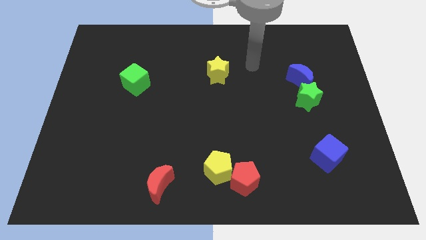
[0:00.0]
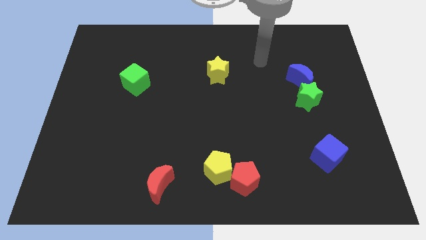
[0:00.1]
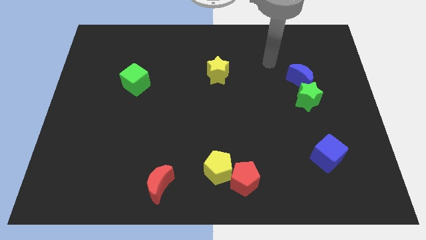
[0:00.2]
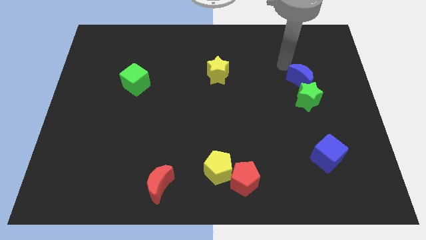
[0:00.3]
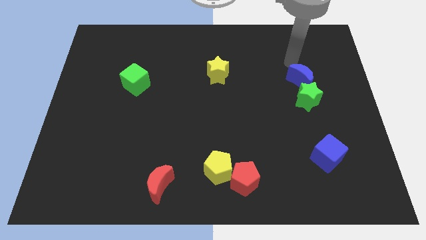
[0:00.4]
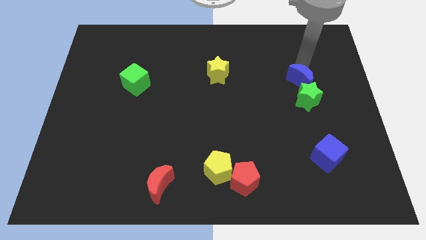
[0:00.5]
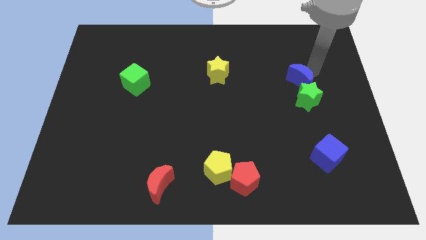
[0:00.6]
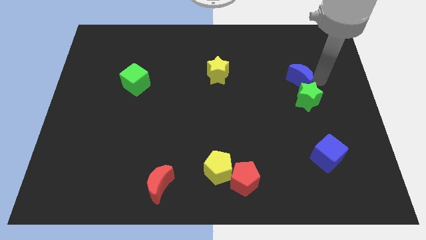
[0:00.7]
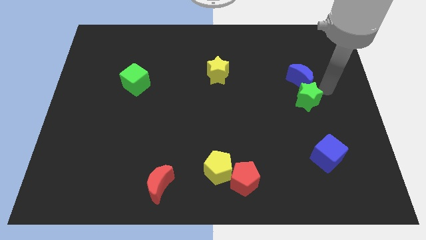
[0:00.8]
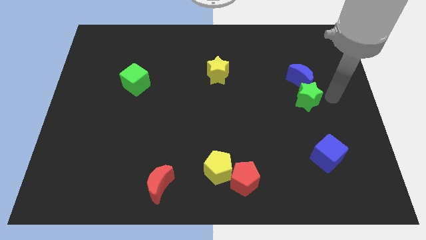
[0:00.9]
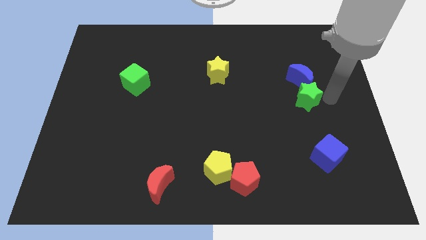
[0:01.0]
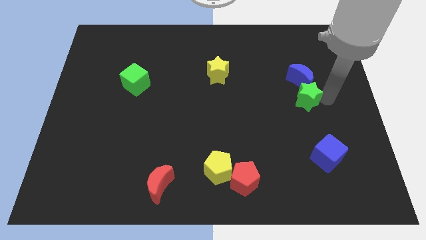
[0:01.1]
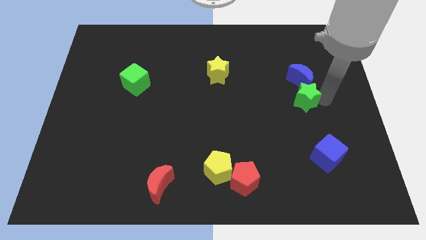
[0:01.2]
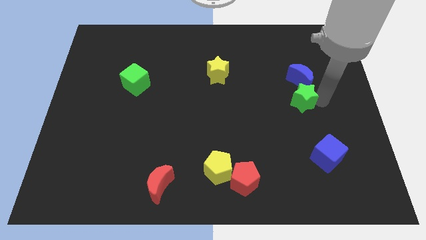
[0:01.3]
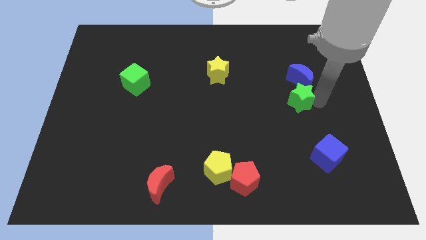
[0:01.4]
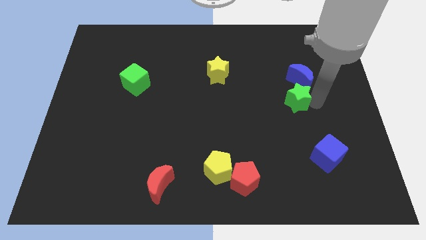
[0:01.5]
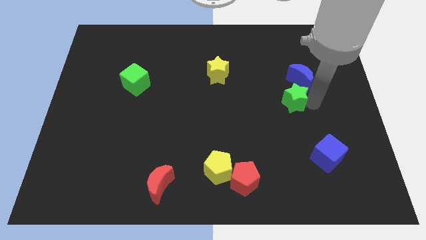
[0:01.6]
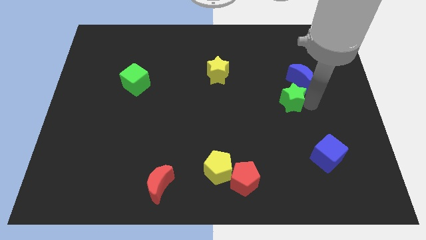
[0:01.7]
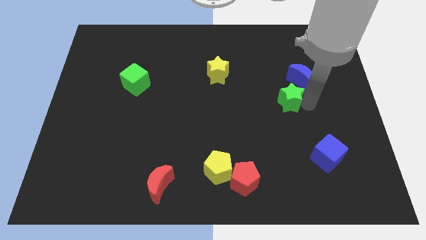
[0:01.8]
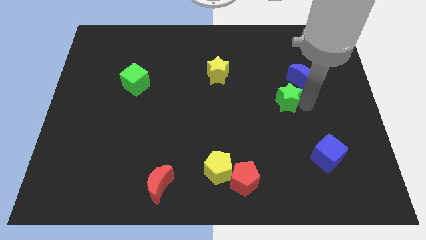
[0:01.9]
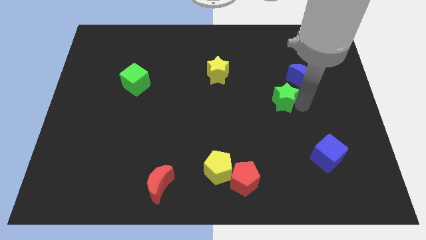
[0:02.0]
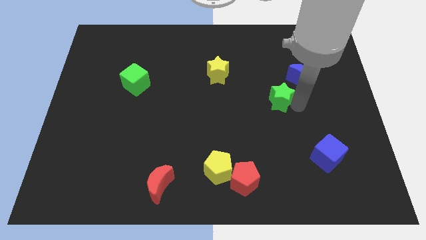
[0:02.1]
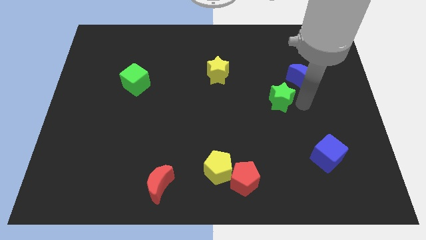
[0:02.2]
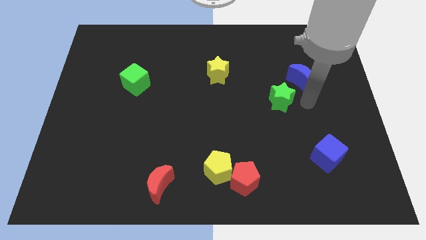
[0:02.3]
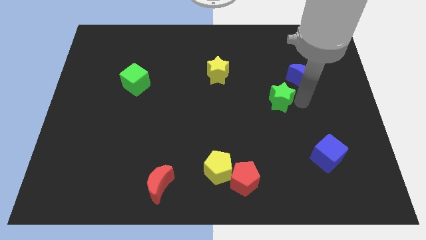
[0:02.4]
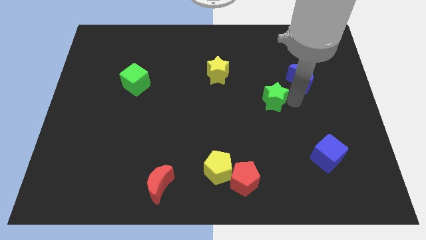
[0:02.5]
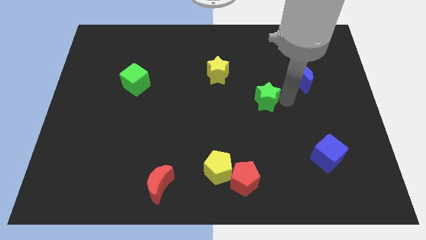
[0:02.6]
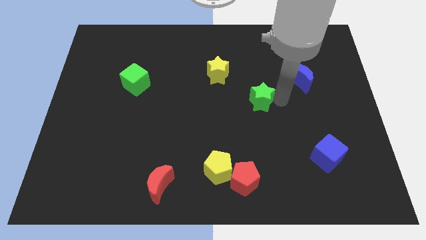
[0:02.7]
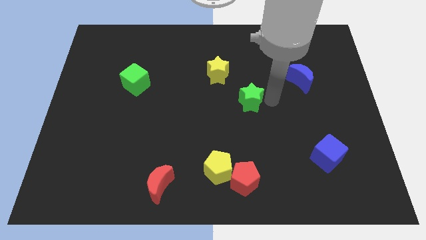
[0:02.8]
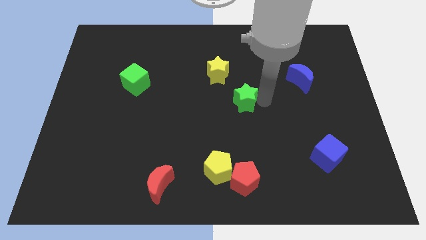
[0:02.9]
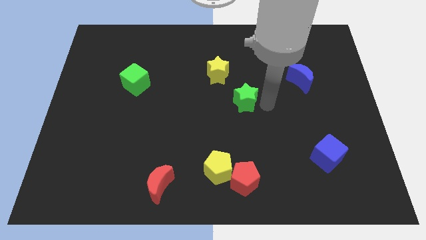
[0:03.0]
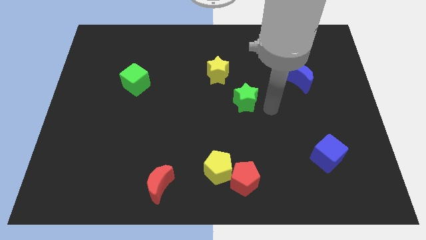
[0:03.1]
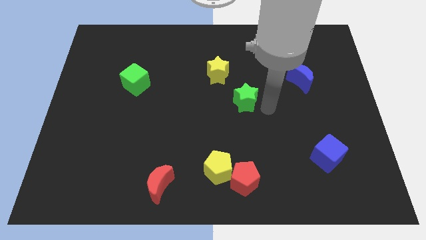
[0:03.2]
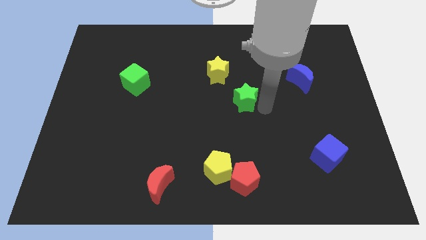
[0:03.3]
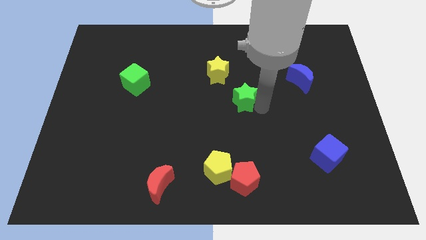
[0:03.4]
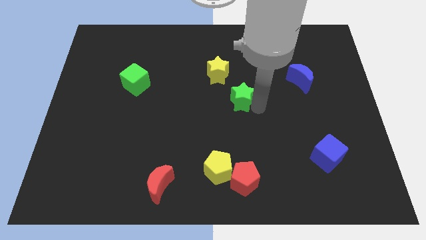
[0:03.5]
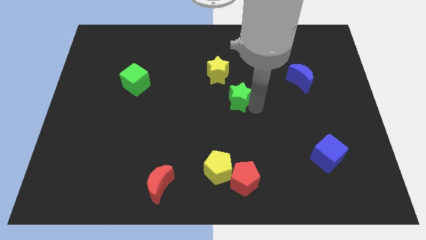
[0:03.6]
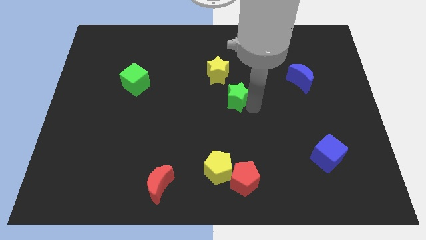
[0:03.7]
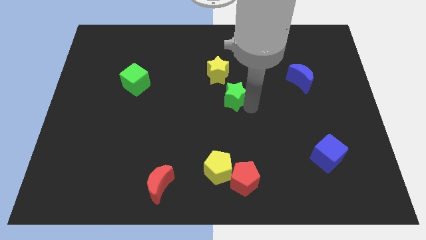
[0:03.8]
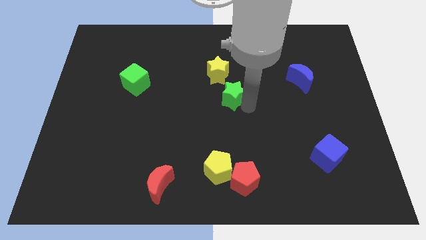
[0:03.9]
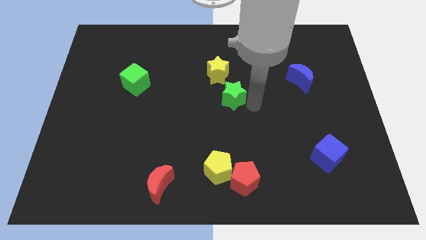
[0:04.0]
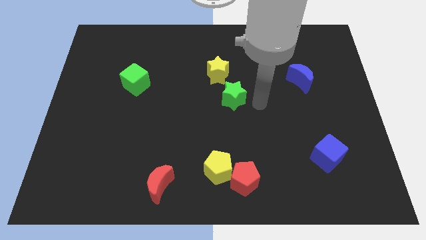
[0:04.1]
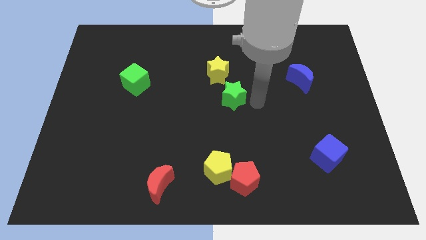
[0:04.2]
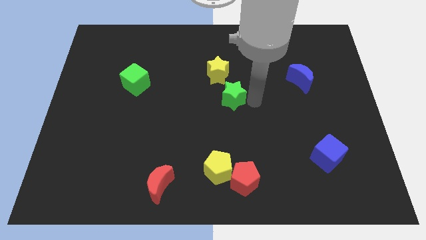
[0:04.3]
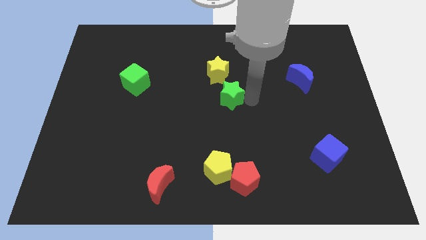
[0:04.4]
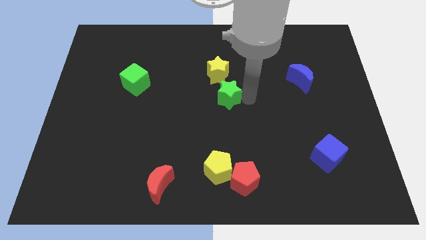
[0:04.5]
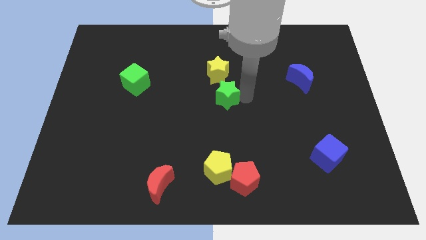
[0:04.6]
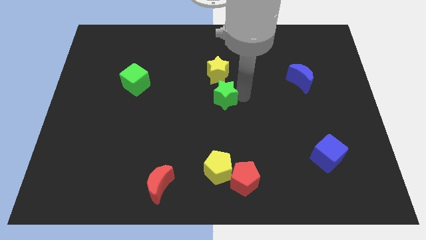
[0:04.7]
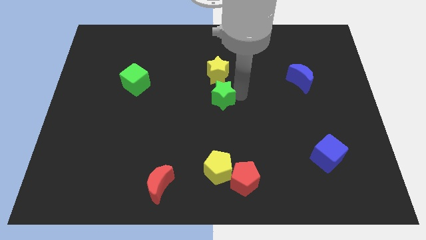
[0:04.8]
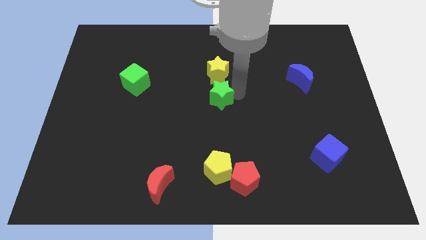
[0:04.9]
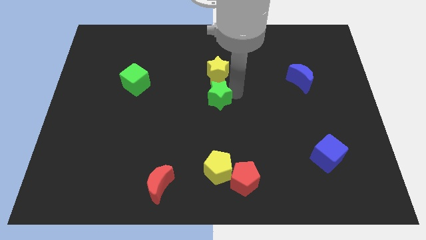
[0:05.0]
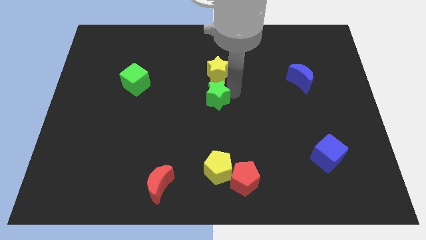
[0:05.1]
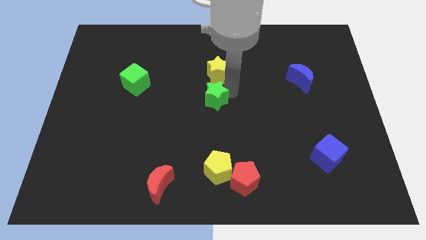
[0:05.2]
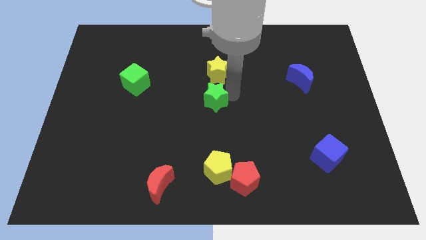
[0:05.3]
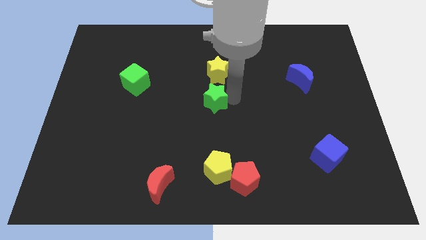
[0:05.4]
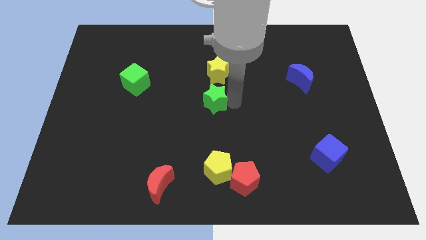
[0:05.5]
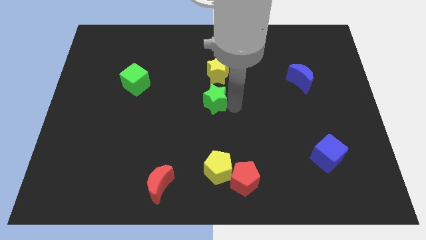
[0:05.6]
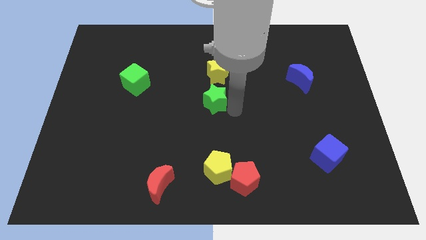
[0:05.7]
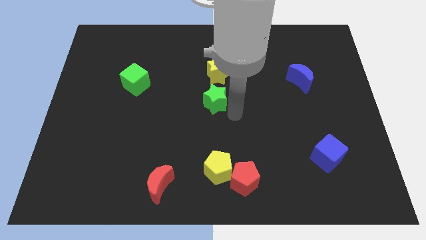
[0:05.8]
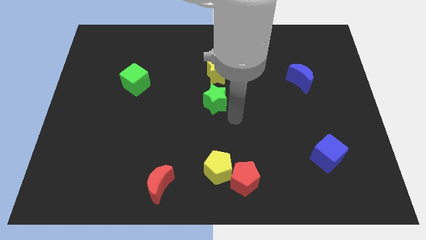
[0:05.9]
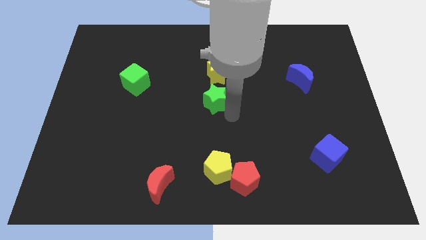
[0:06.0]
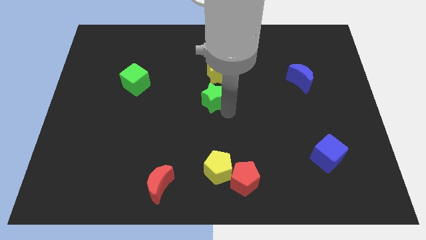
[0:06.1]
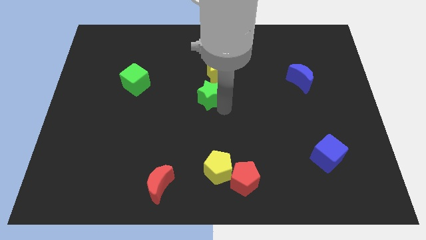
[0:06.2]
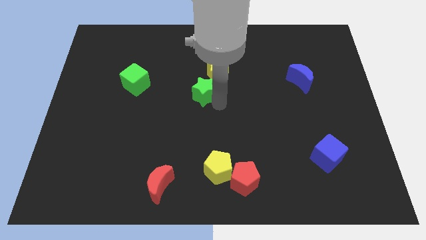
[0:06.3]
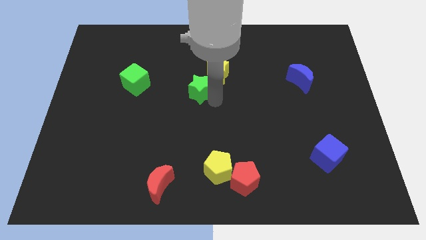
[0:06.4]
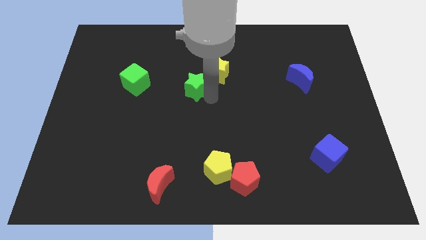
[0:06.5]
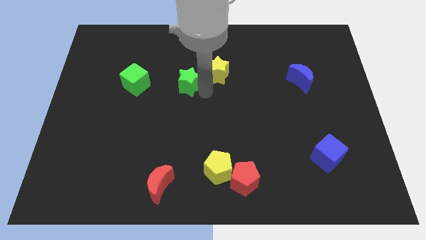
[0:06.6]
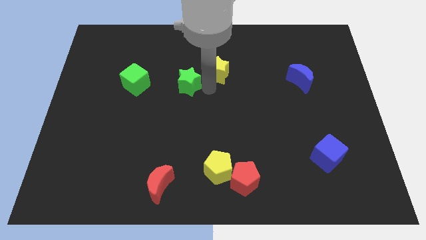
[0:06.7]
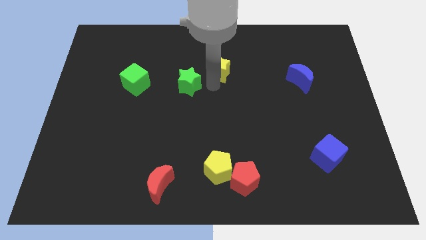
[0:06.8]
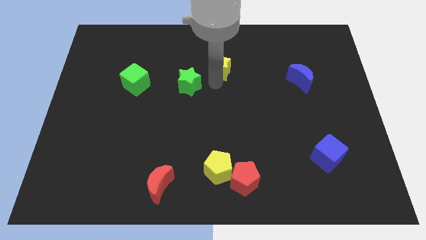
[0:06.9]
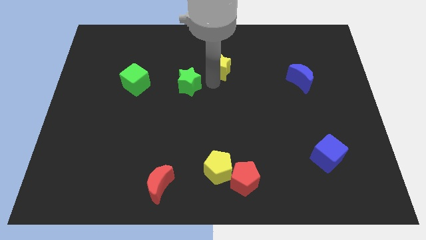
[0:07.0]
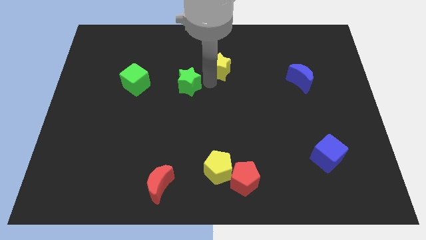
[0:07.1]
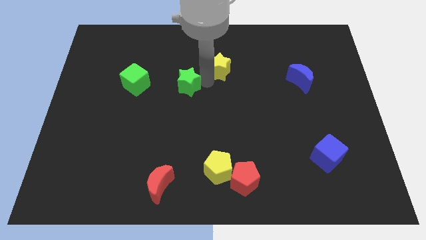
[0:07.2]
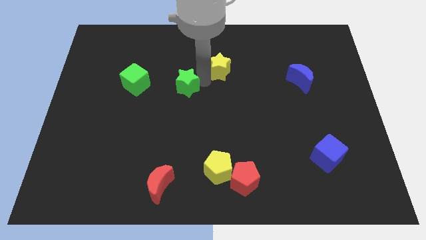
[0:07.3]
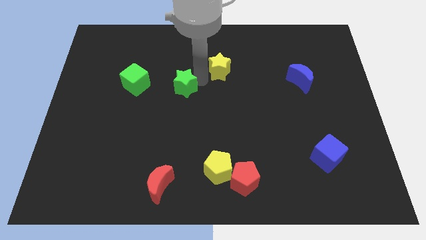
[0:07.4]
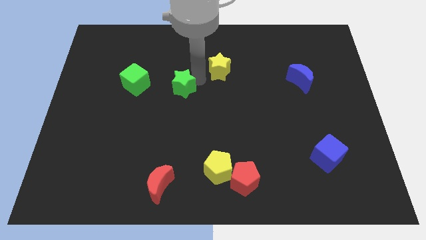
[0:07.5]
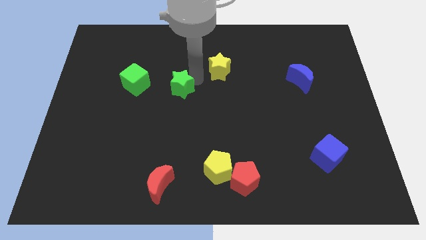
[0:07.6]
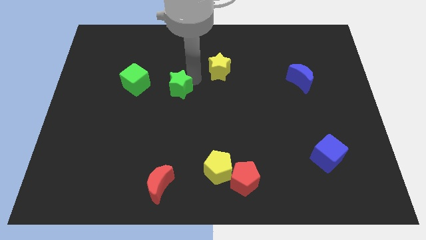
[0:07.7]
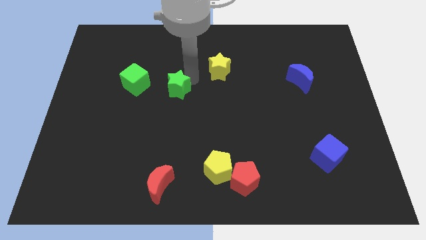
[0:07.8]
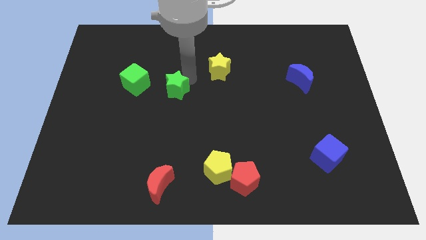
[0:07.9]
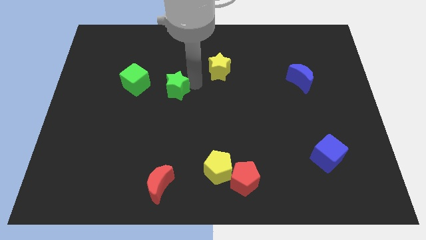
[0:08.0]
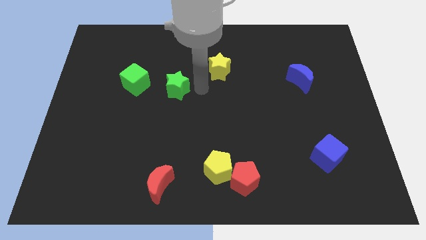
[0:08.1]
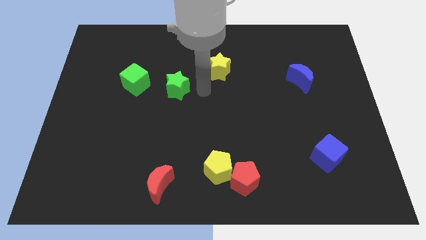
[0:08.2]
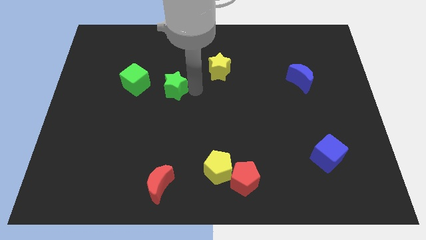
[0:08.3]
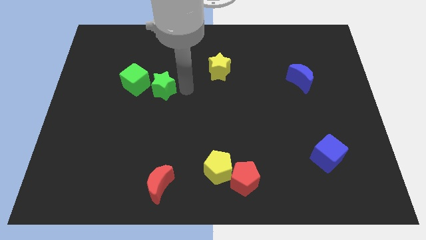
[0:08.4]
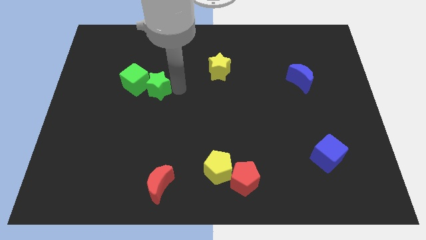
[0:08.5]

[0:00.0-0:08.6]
push the green star to the green cube
